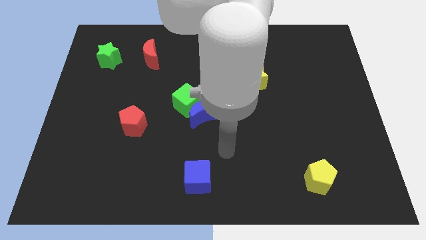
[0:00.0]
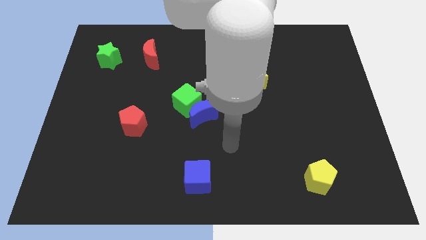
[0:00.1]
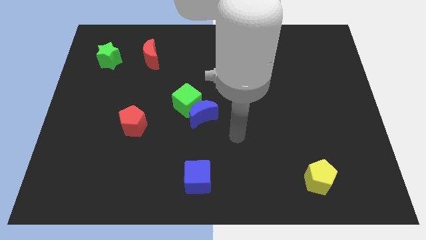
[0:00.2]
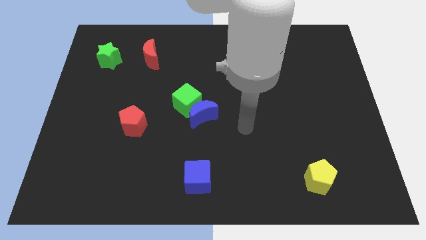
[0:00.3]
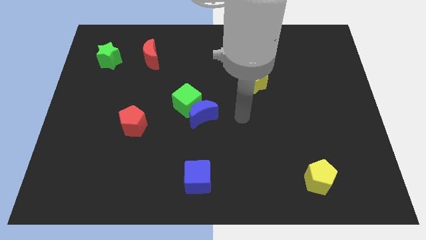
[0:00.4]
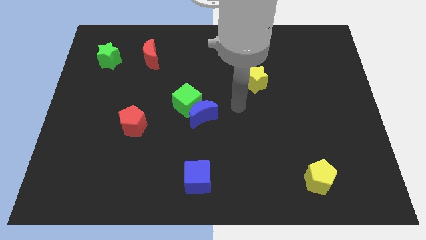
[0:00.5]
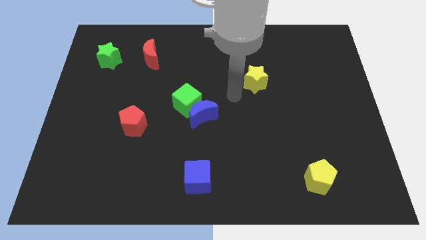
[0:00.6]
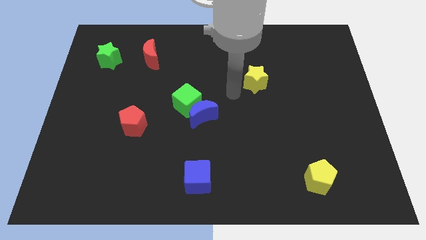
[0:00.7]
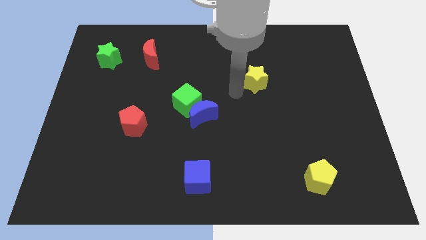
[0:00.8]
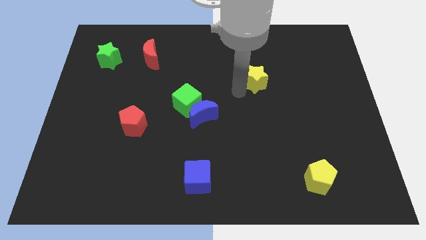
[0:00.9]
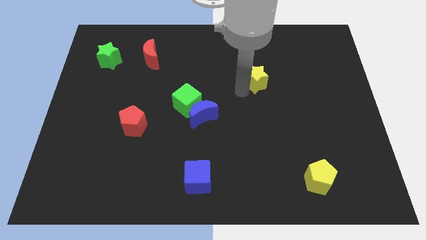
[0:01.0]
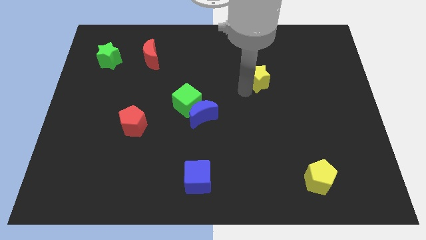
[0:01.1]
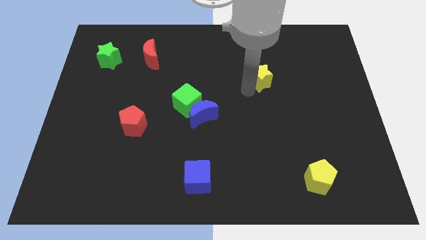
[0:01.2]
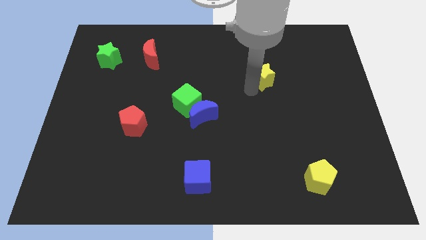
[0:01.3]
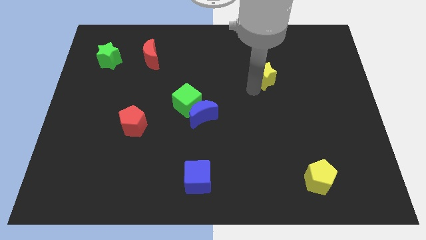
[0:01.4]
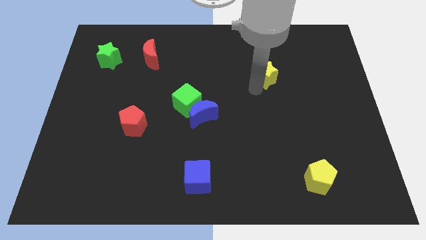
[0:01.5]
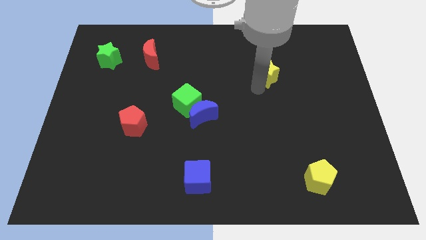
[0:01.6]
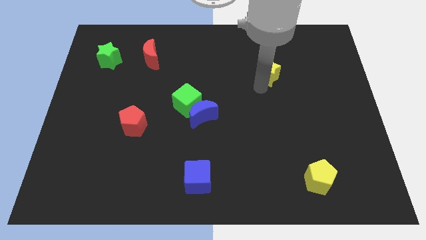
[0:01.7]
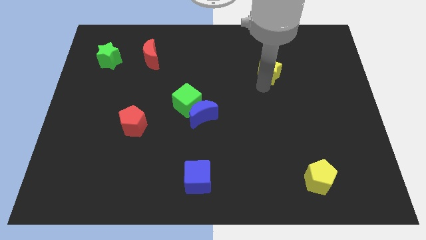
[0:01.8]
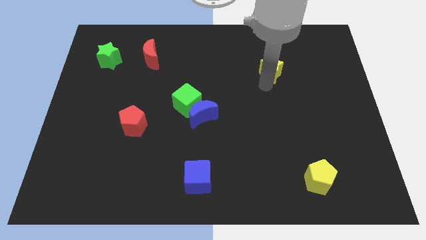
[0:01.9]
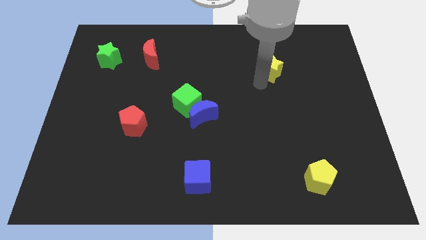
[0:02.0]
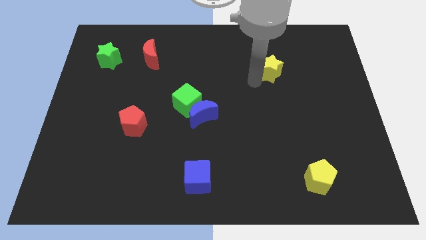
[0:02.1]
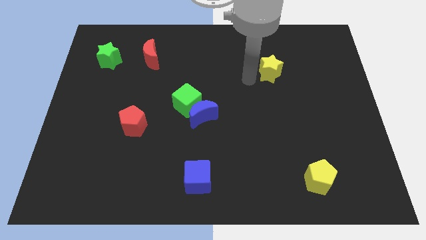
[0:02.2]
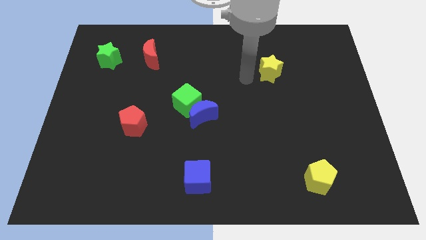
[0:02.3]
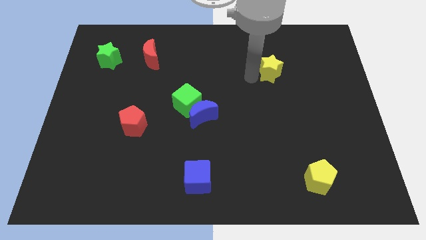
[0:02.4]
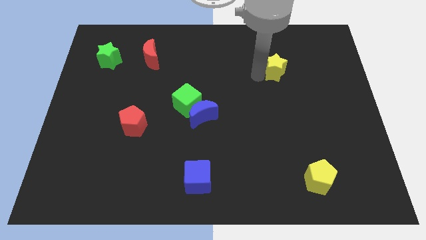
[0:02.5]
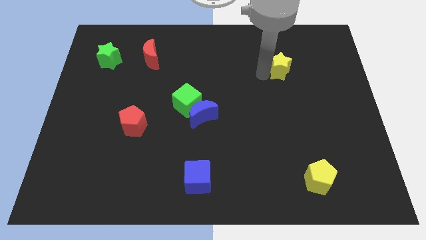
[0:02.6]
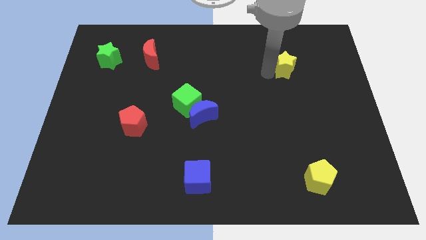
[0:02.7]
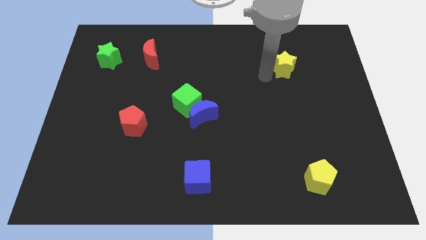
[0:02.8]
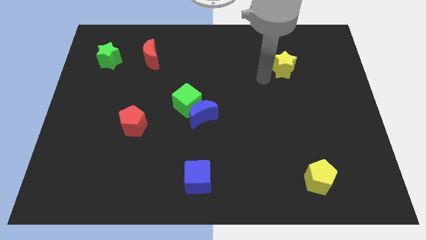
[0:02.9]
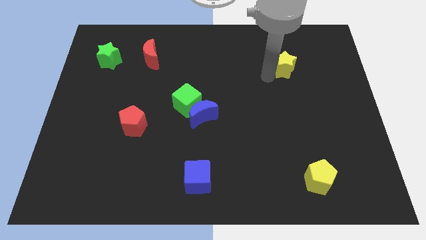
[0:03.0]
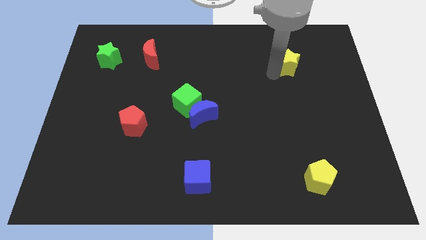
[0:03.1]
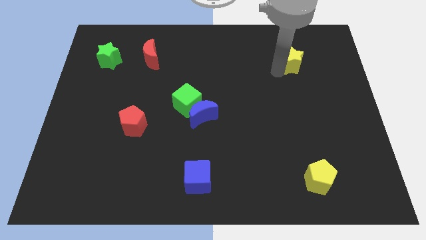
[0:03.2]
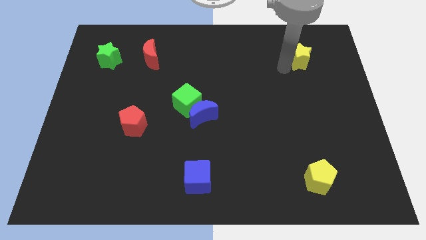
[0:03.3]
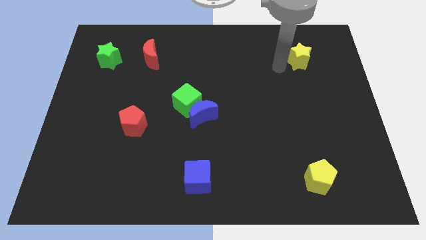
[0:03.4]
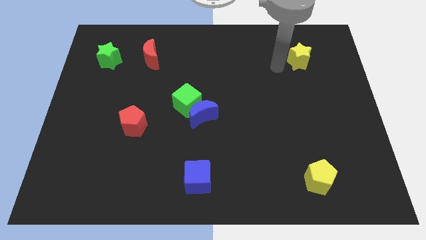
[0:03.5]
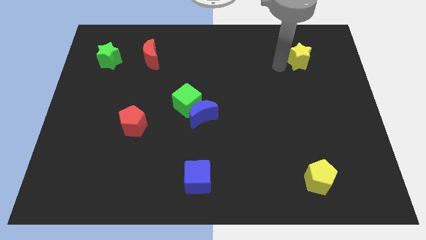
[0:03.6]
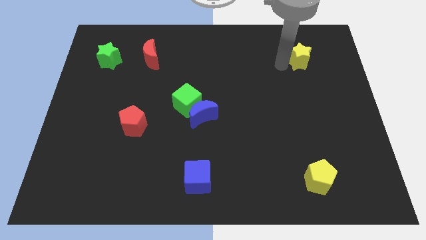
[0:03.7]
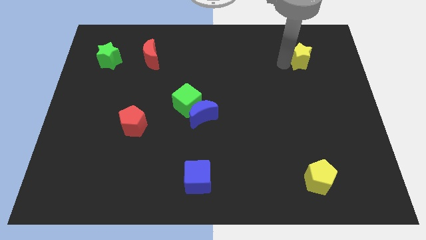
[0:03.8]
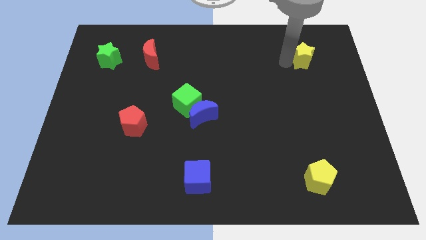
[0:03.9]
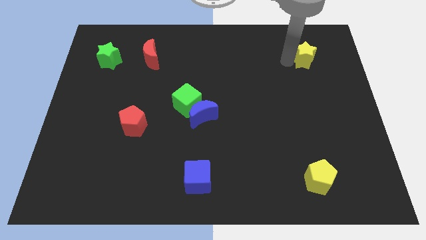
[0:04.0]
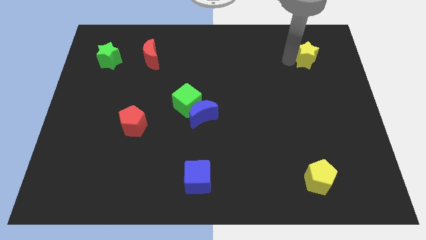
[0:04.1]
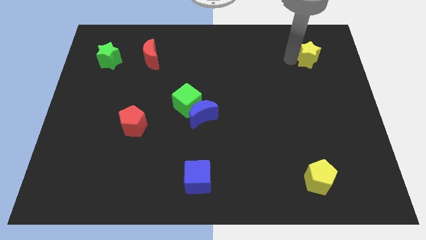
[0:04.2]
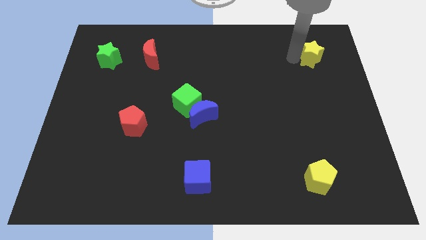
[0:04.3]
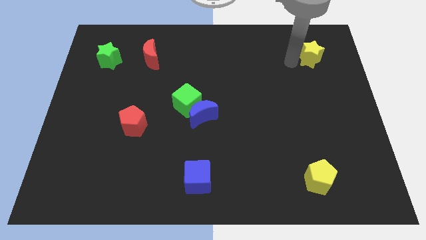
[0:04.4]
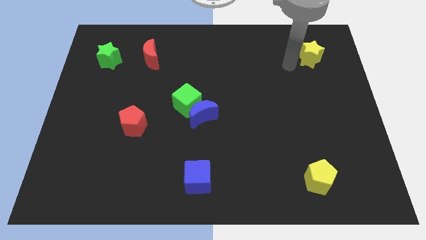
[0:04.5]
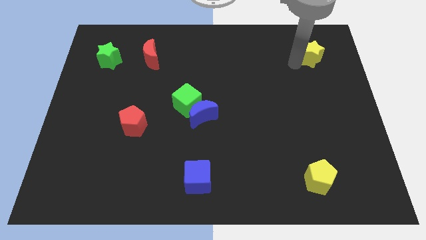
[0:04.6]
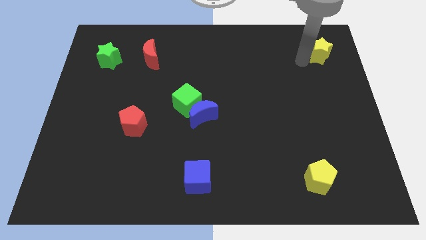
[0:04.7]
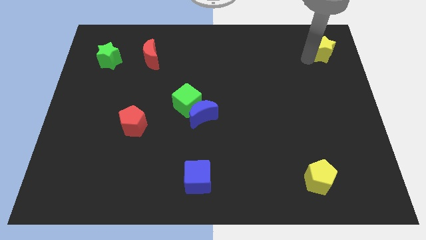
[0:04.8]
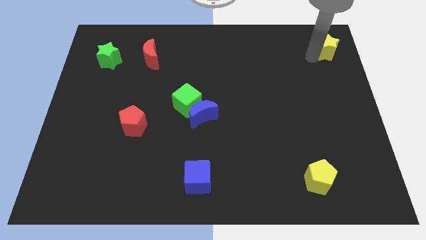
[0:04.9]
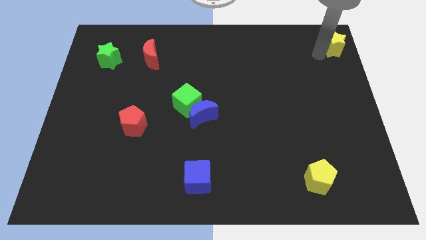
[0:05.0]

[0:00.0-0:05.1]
move the yellow star to the top right corner

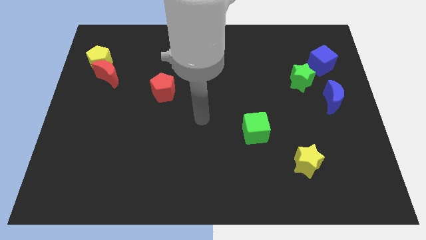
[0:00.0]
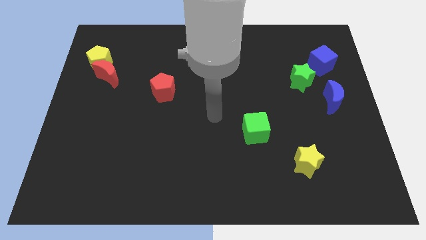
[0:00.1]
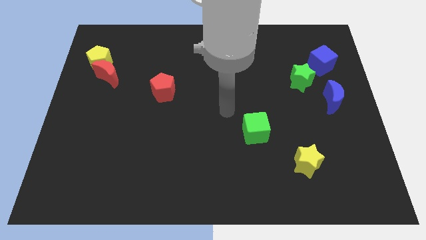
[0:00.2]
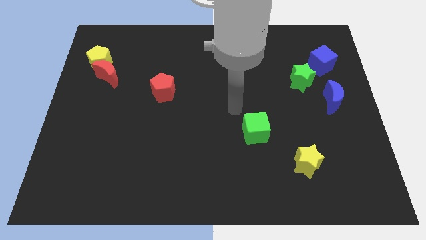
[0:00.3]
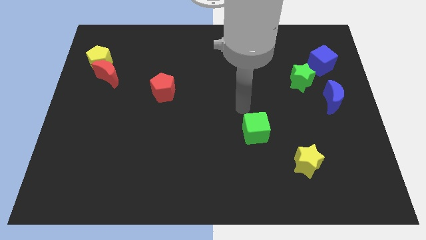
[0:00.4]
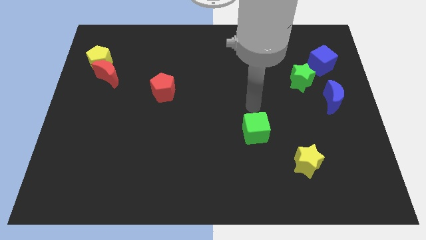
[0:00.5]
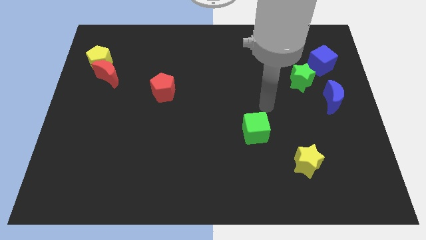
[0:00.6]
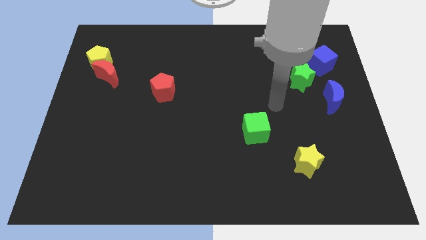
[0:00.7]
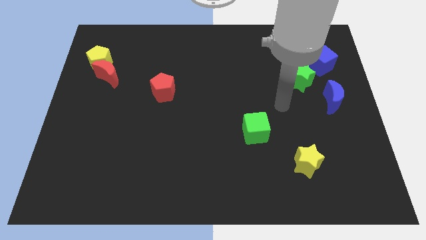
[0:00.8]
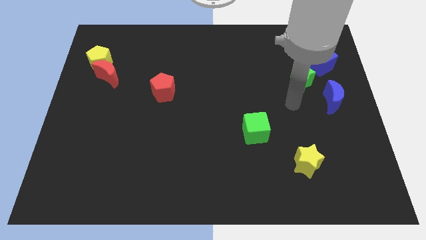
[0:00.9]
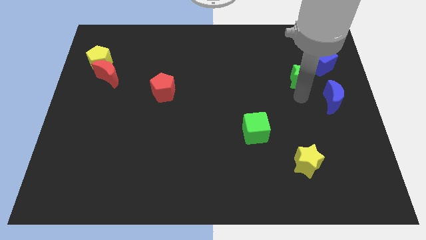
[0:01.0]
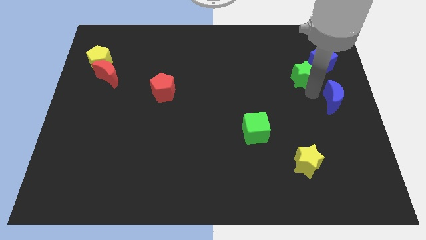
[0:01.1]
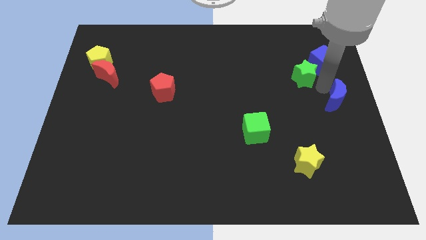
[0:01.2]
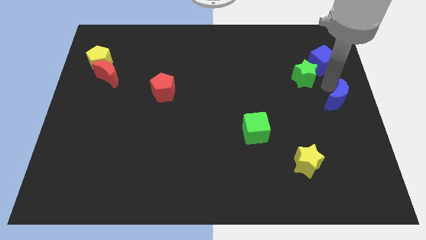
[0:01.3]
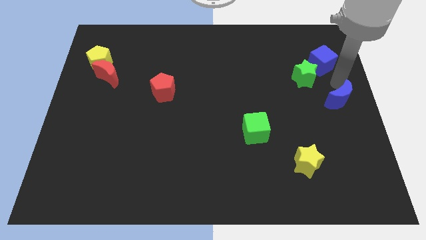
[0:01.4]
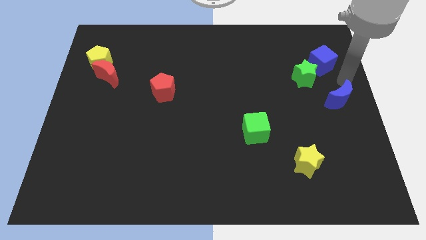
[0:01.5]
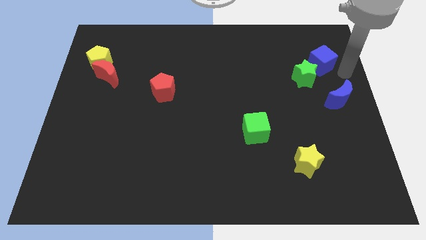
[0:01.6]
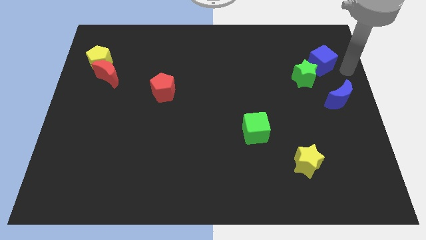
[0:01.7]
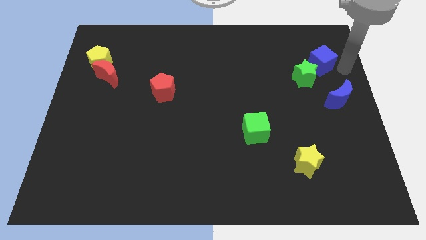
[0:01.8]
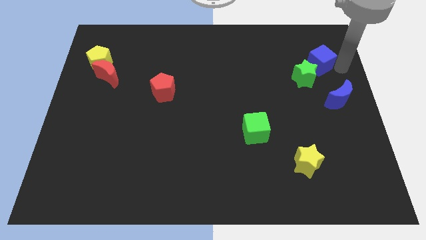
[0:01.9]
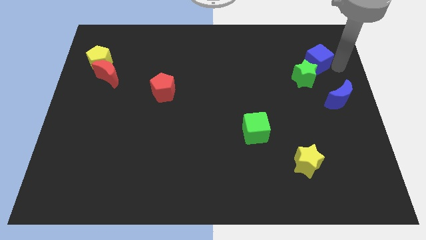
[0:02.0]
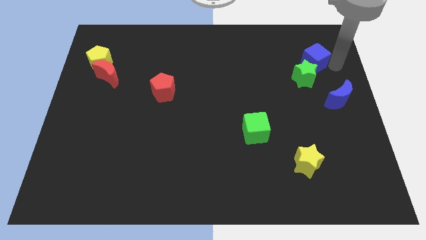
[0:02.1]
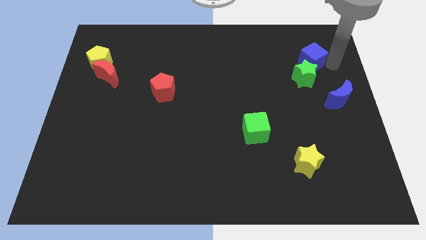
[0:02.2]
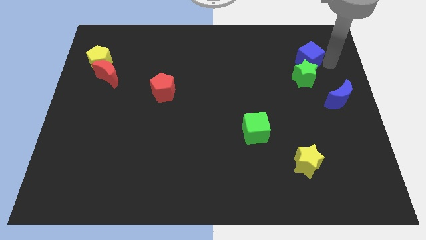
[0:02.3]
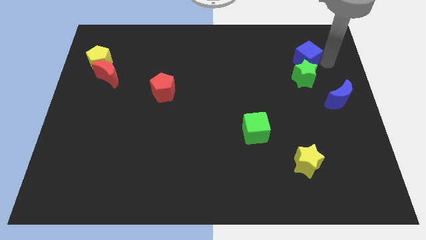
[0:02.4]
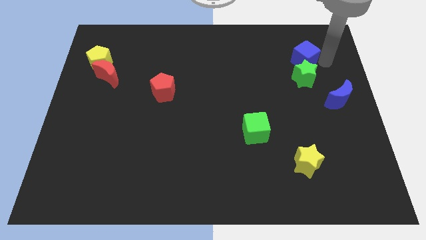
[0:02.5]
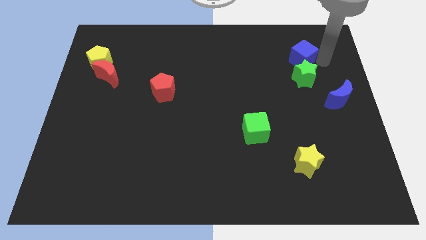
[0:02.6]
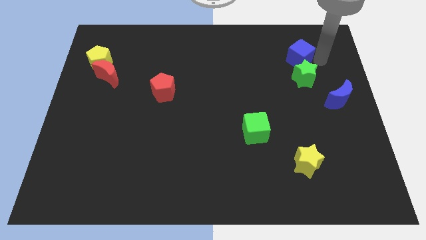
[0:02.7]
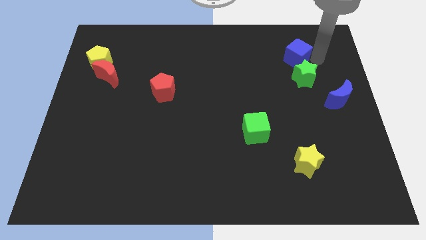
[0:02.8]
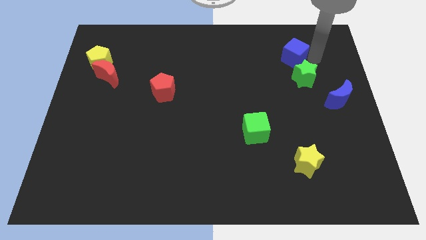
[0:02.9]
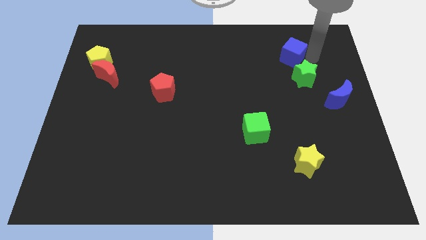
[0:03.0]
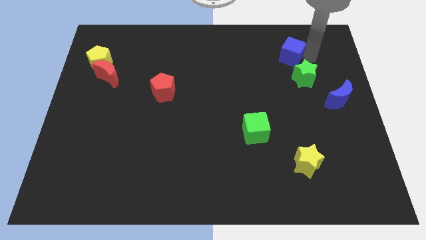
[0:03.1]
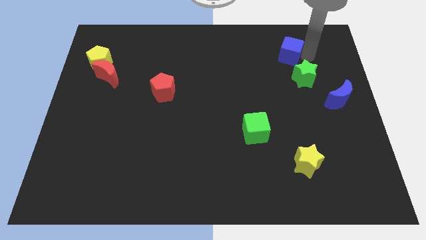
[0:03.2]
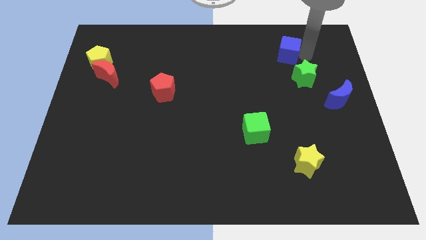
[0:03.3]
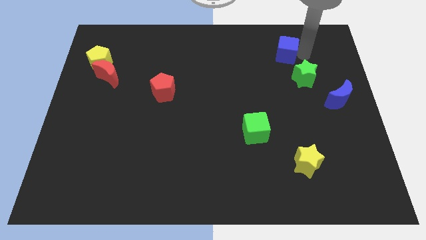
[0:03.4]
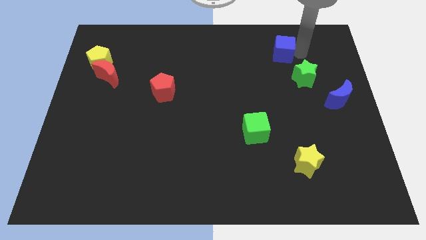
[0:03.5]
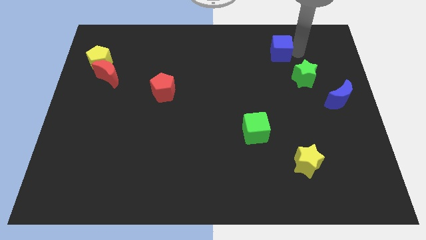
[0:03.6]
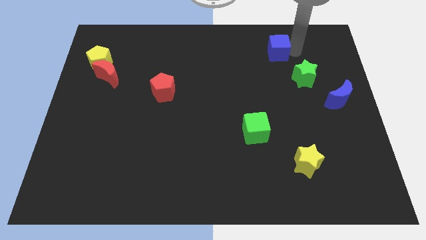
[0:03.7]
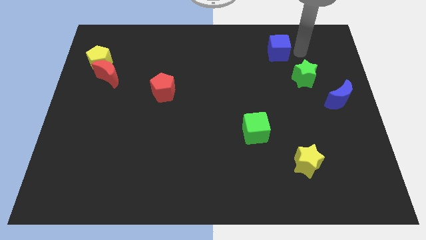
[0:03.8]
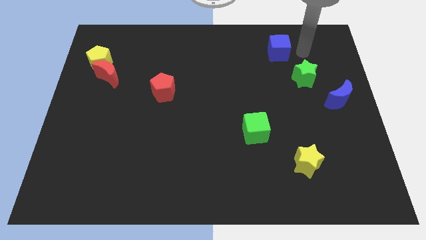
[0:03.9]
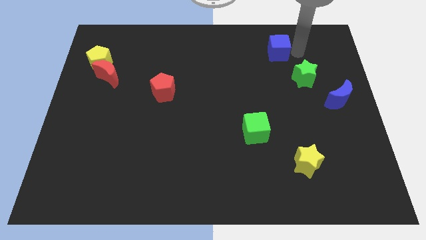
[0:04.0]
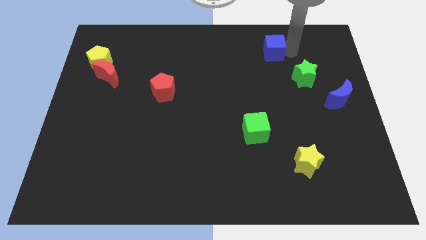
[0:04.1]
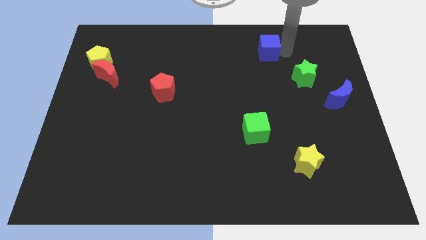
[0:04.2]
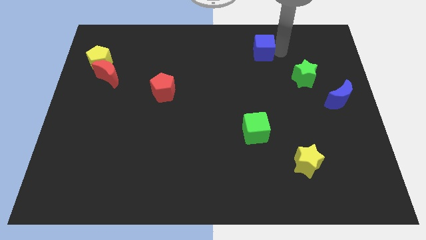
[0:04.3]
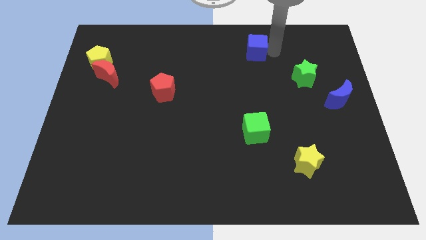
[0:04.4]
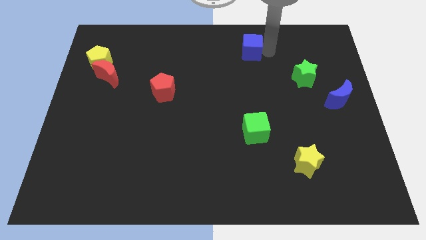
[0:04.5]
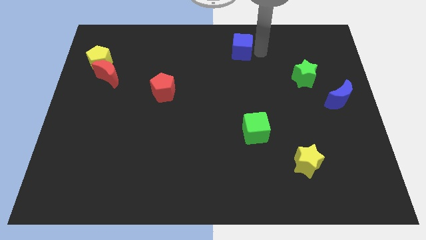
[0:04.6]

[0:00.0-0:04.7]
put the blue cube to the top
